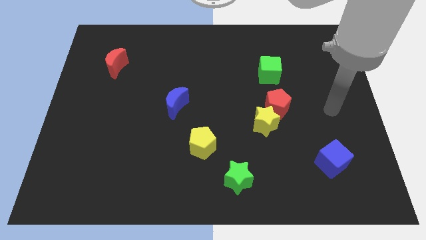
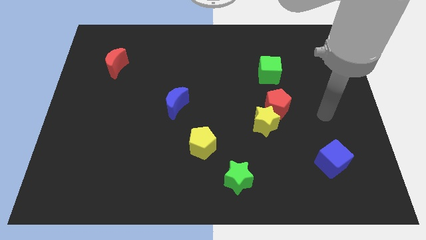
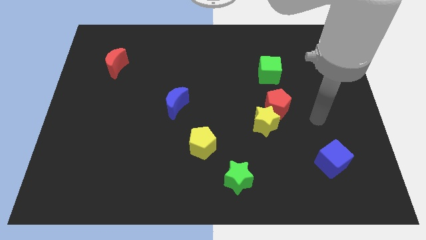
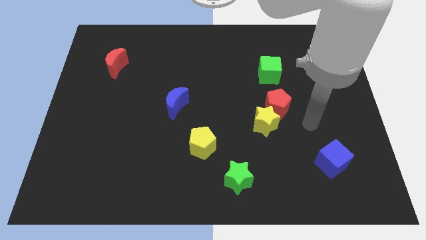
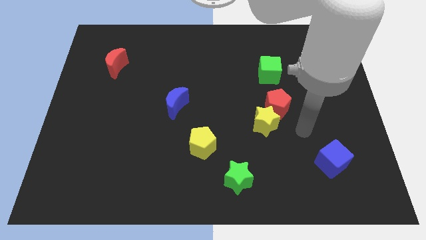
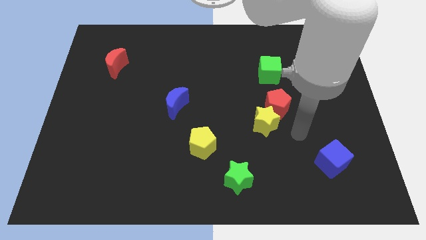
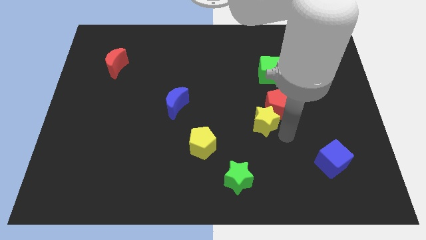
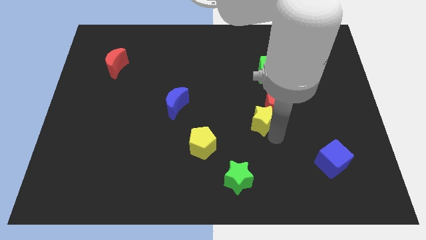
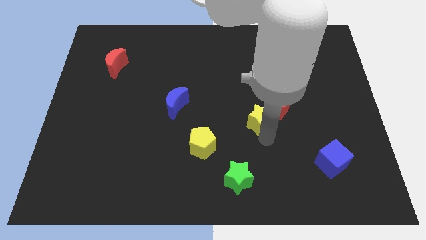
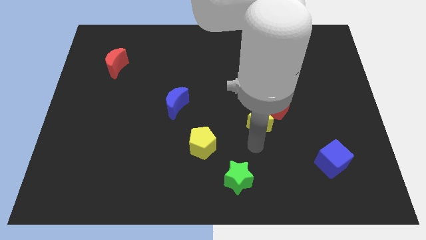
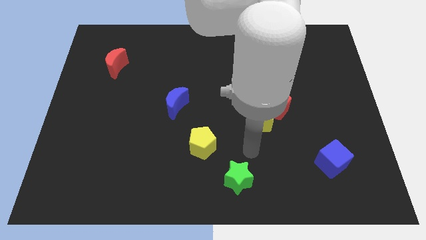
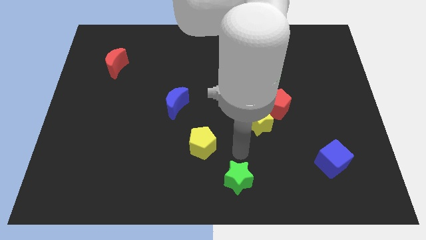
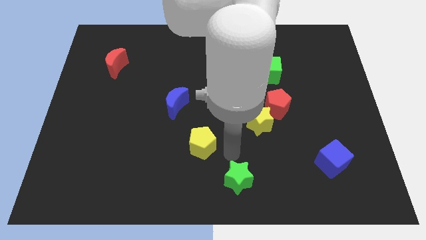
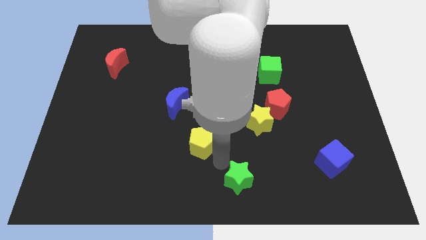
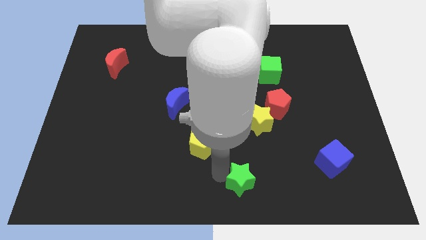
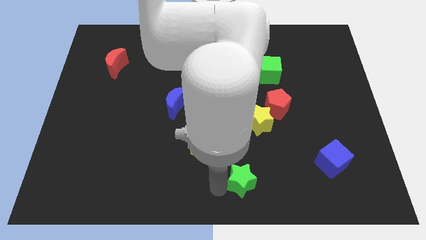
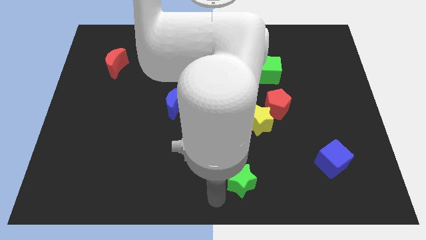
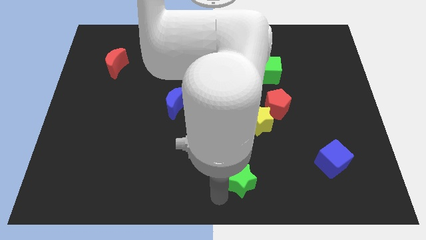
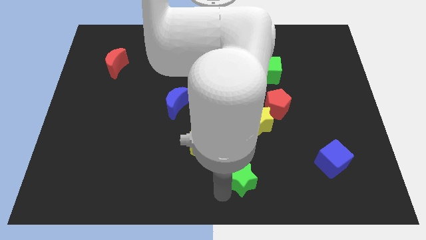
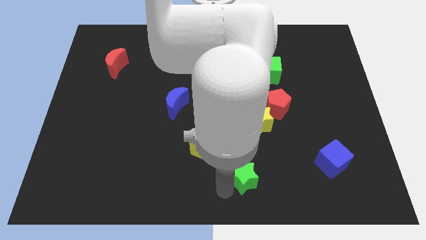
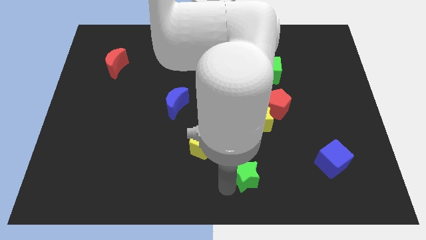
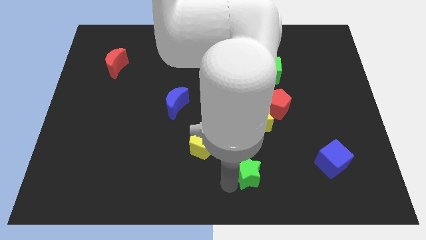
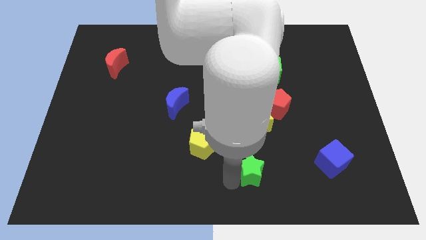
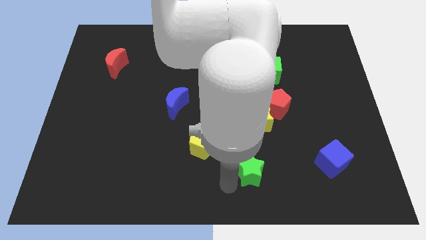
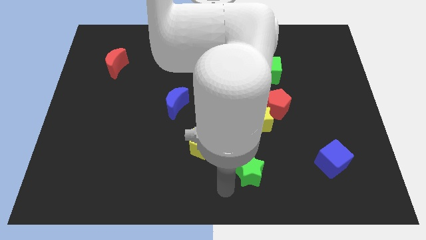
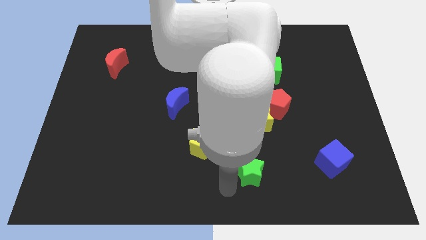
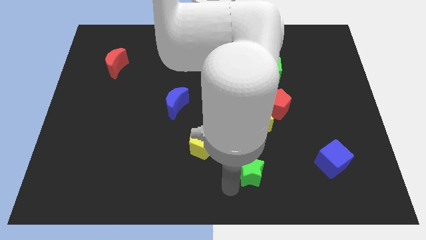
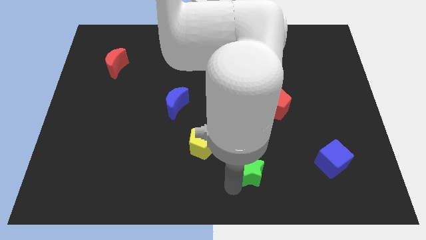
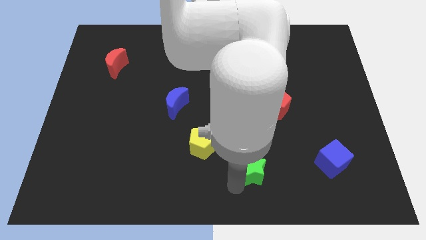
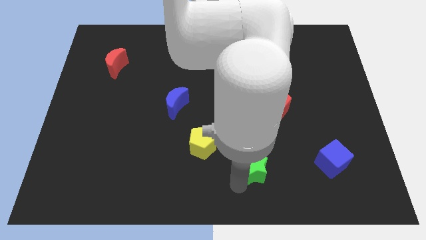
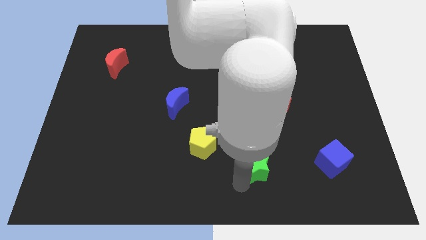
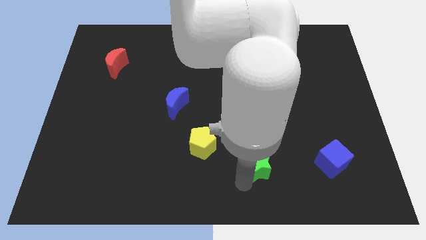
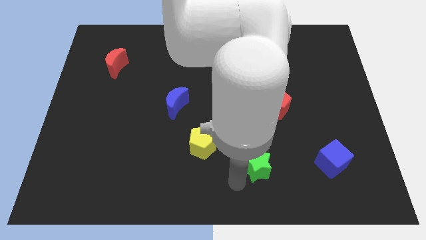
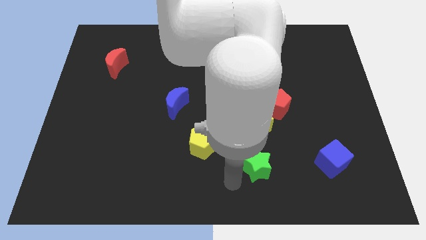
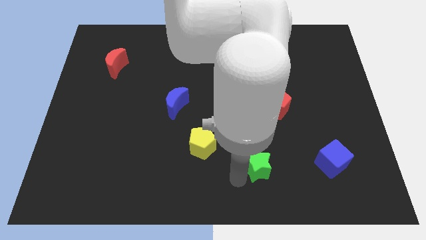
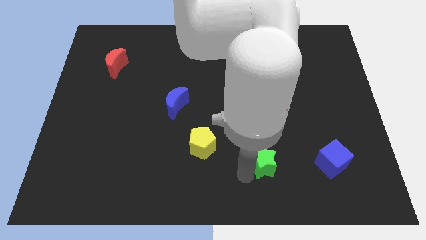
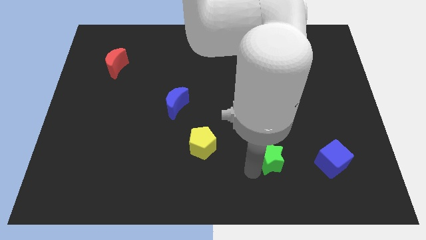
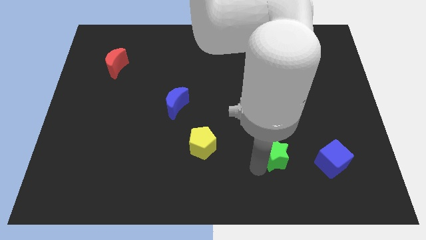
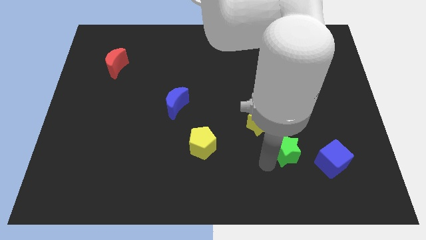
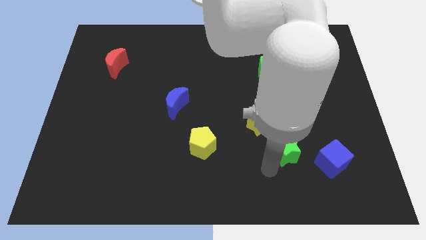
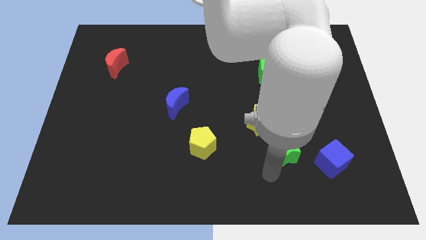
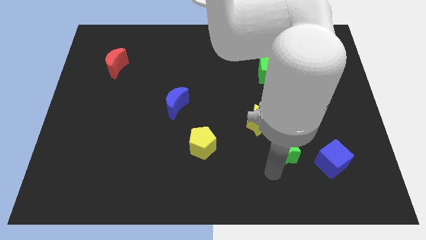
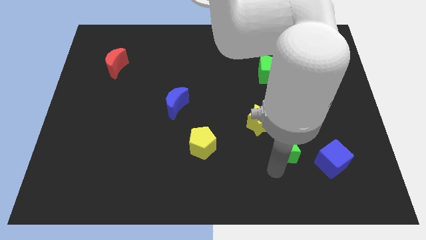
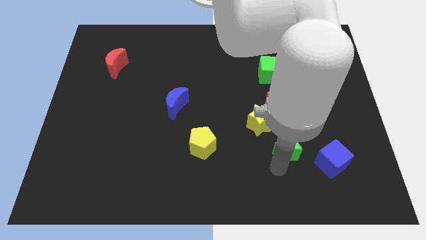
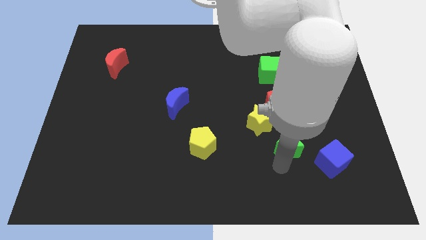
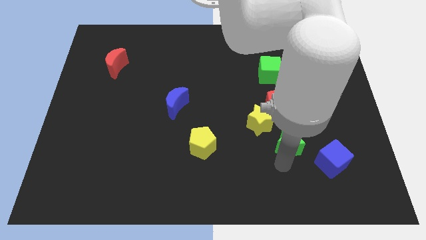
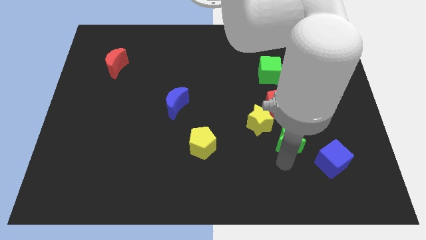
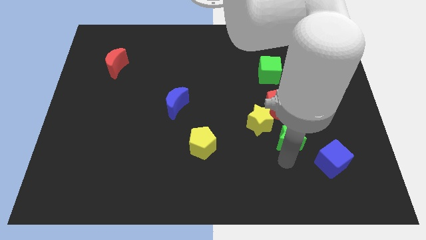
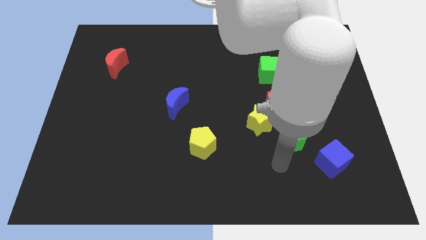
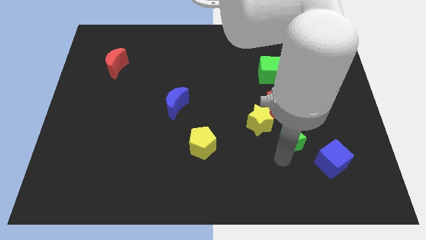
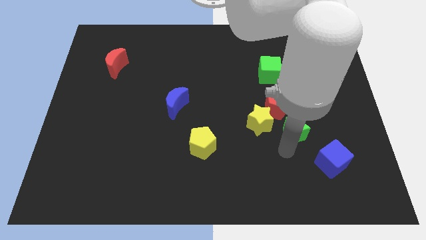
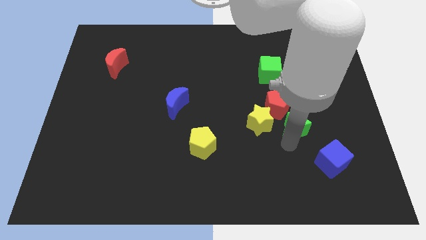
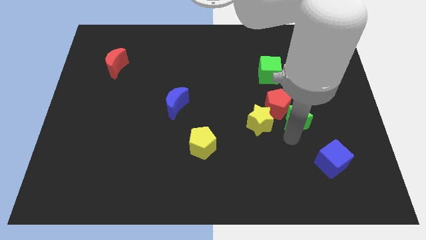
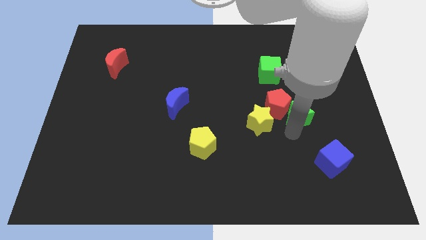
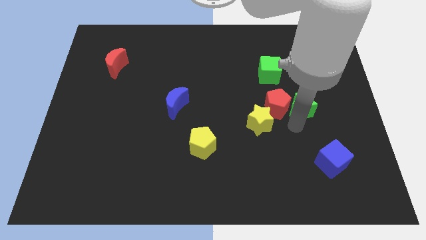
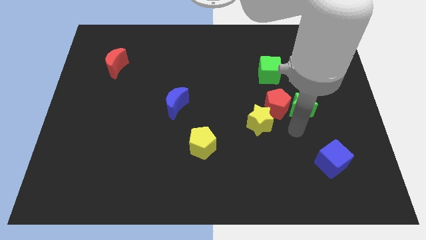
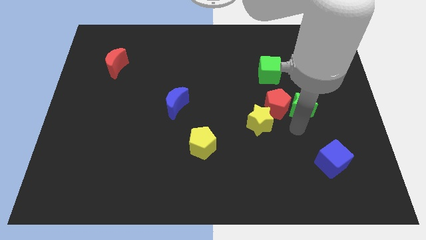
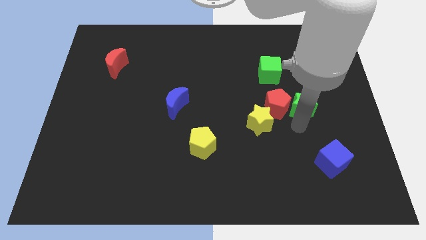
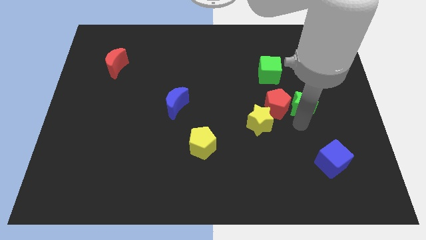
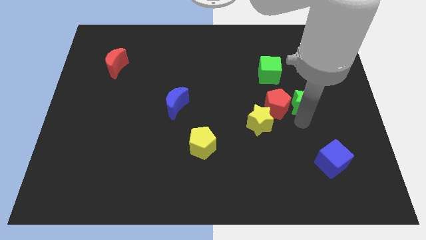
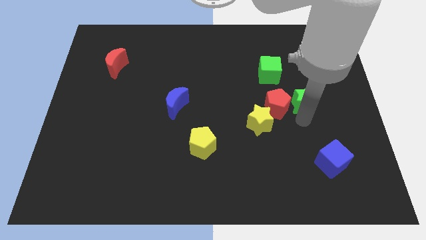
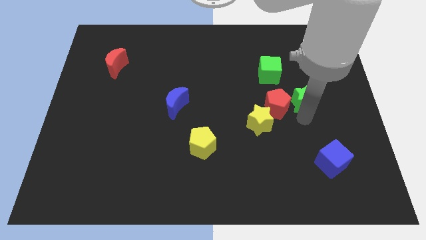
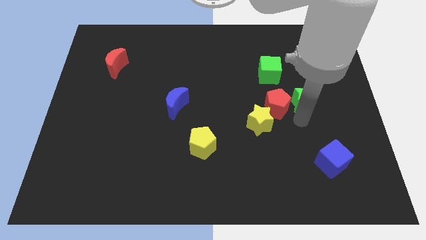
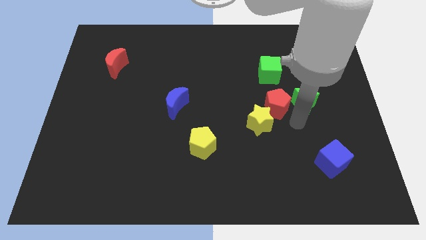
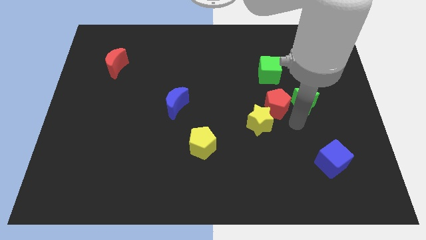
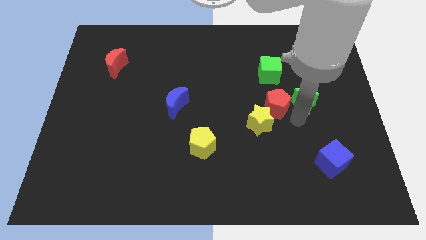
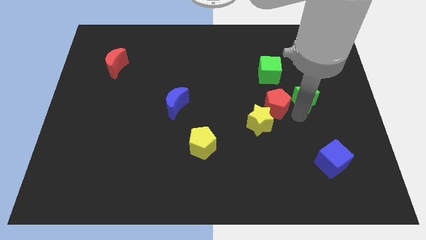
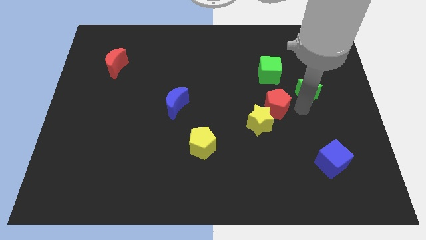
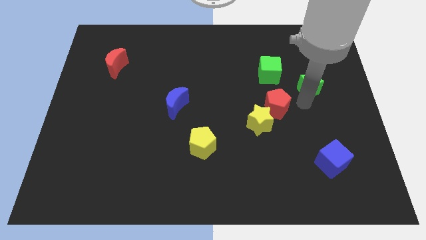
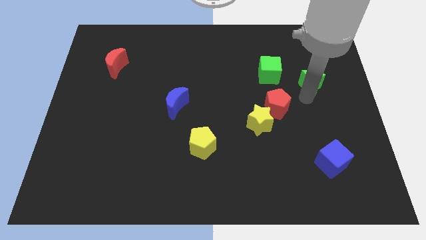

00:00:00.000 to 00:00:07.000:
slide the green star right of the green cube
